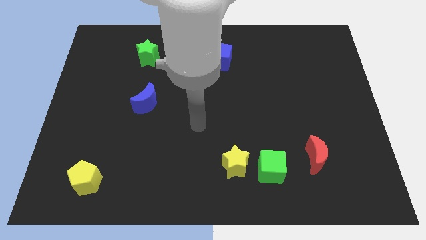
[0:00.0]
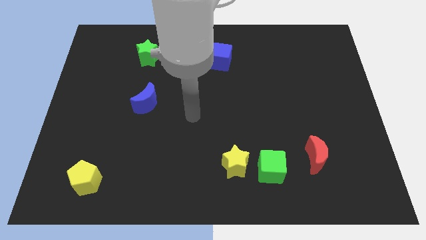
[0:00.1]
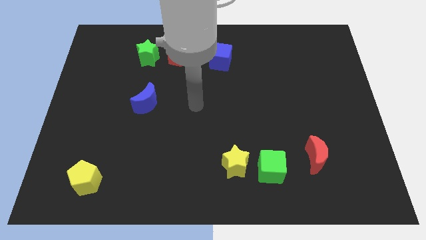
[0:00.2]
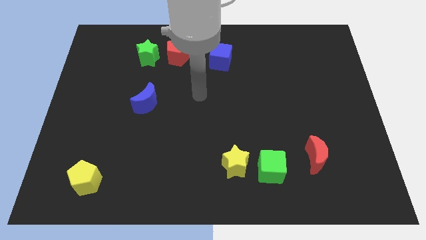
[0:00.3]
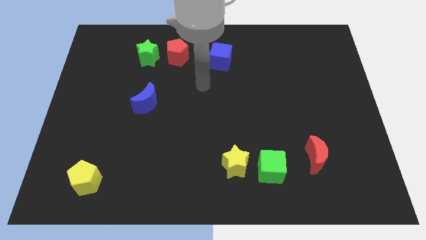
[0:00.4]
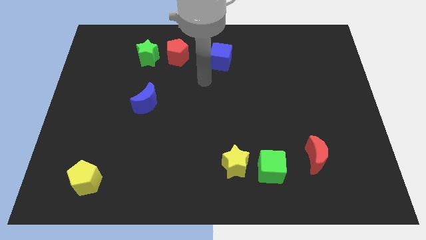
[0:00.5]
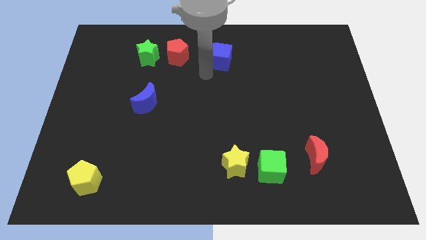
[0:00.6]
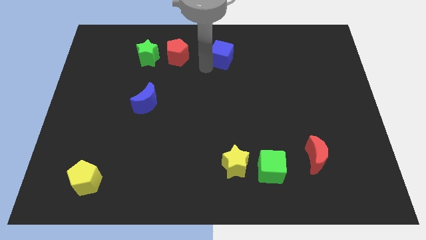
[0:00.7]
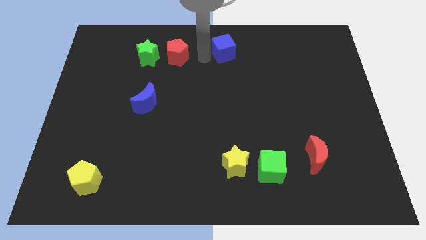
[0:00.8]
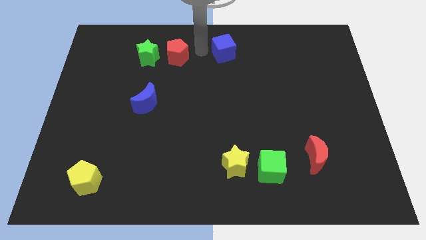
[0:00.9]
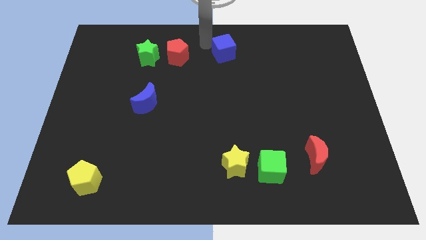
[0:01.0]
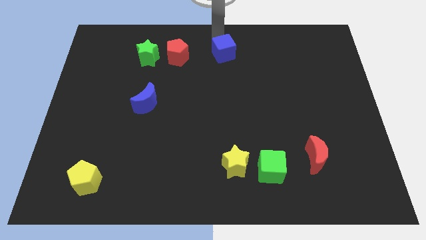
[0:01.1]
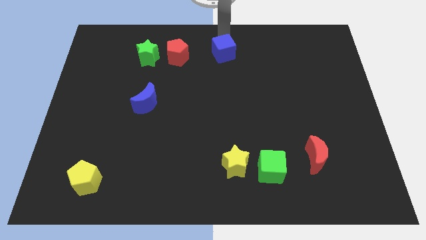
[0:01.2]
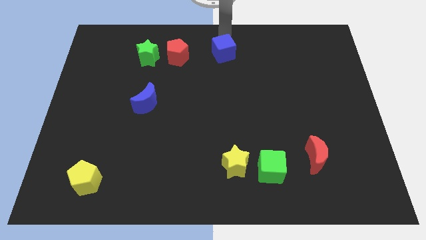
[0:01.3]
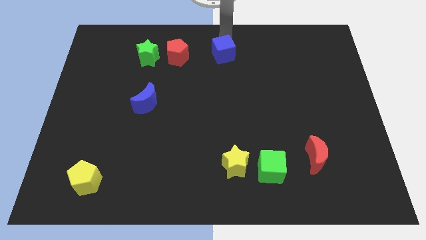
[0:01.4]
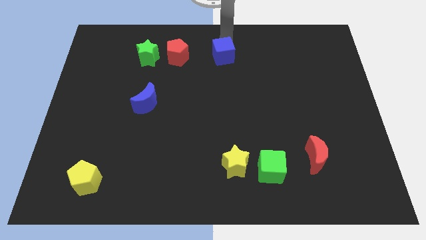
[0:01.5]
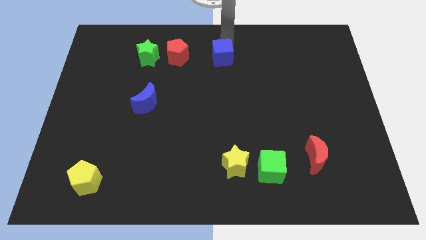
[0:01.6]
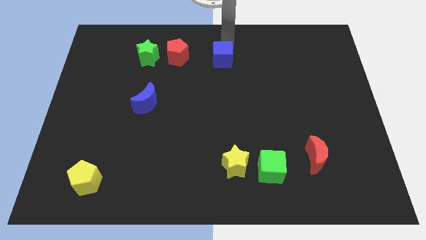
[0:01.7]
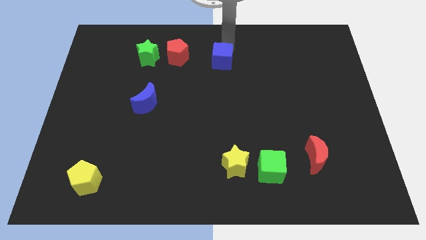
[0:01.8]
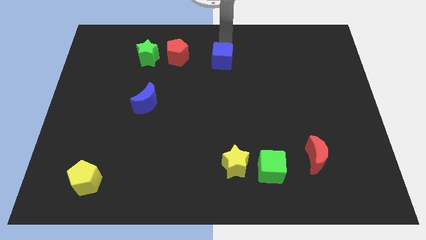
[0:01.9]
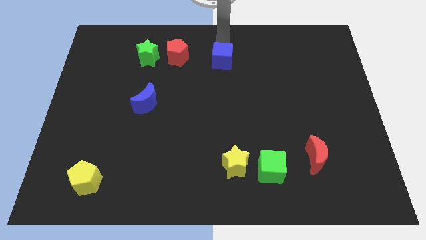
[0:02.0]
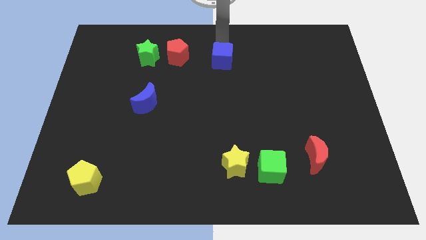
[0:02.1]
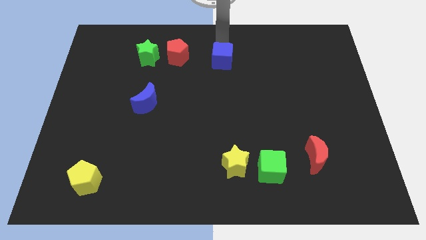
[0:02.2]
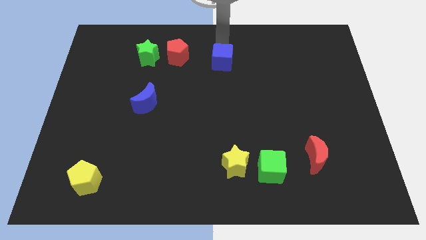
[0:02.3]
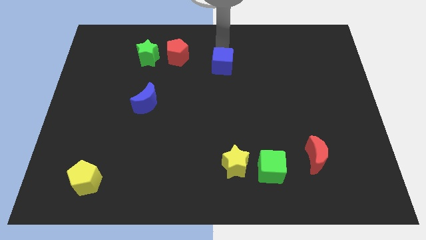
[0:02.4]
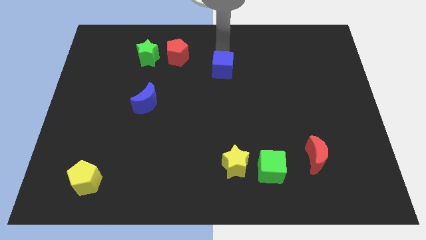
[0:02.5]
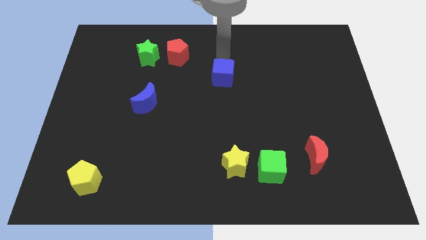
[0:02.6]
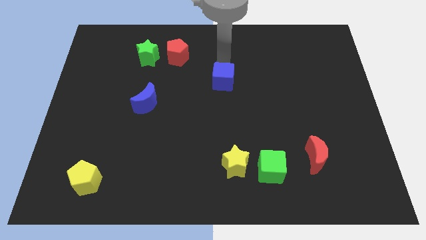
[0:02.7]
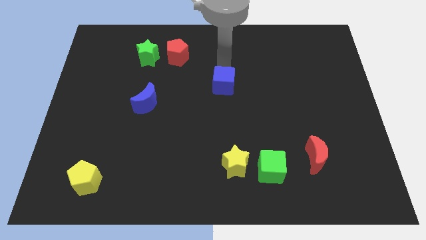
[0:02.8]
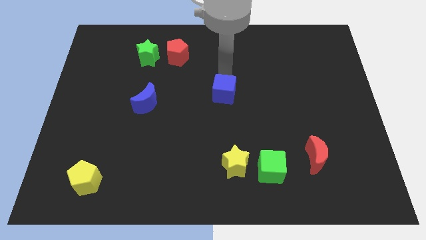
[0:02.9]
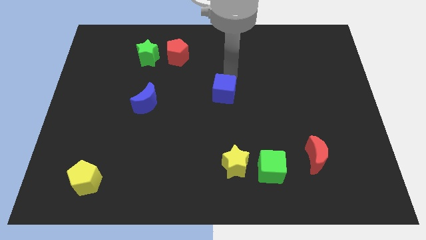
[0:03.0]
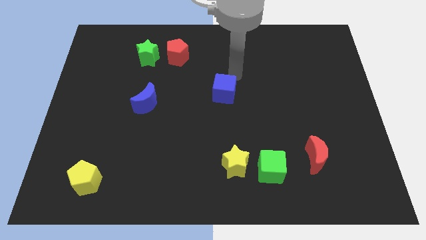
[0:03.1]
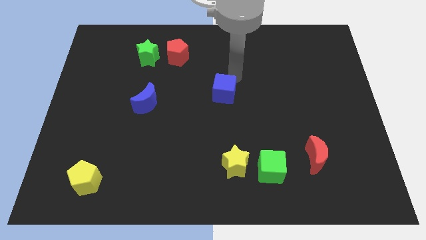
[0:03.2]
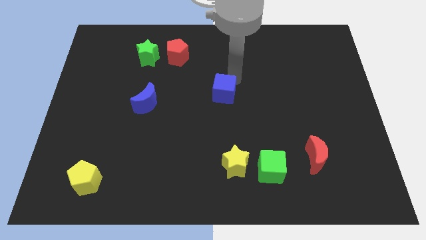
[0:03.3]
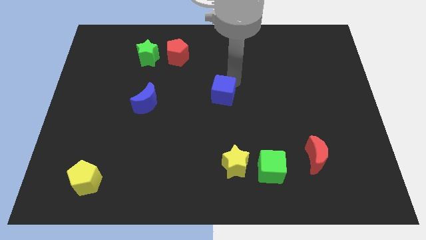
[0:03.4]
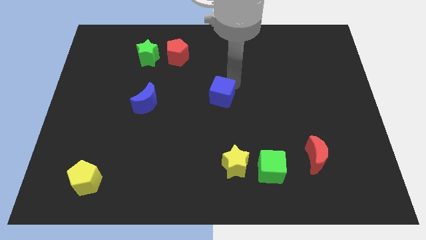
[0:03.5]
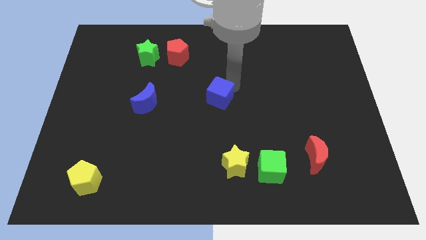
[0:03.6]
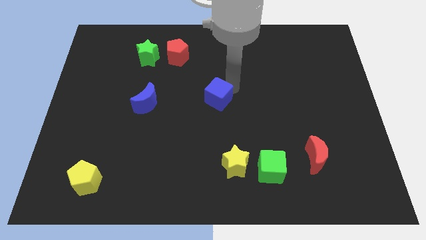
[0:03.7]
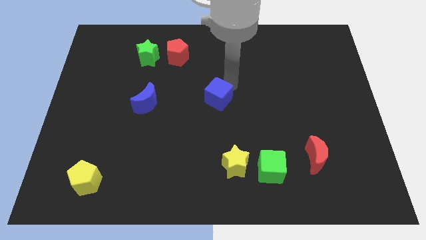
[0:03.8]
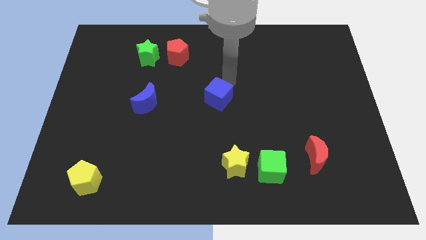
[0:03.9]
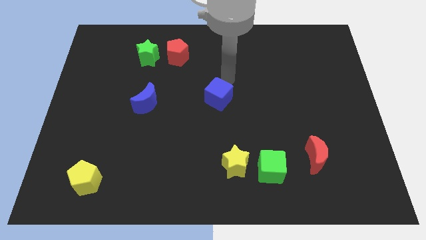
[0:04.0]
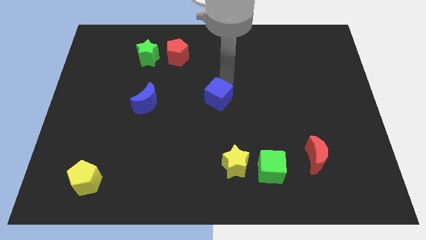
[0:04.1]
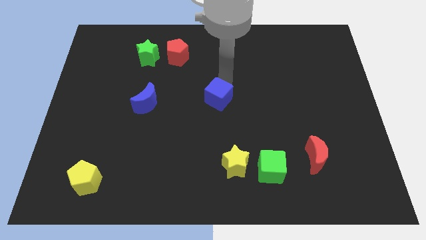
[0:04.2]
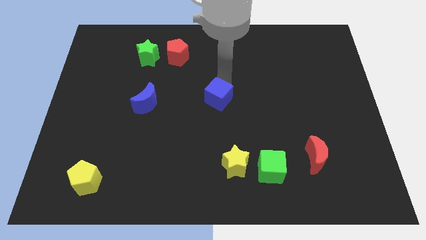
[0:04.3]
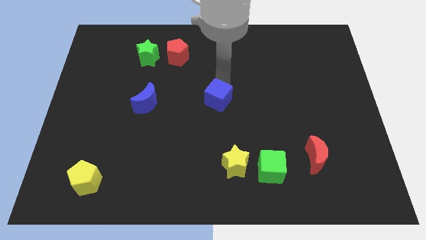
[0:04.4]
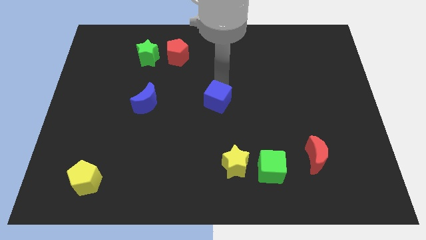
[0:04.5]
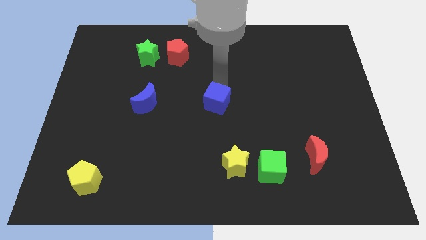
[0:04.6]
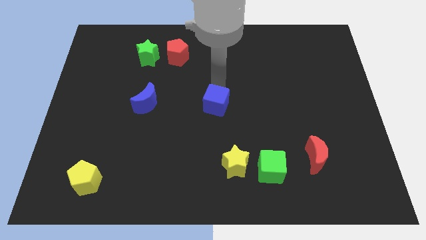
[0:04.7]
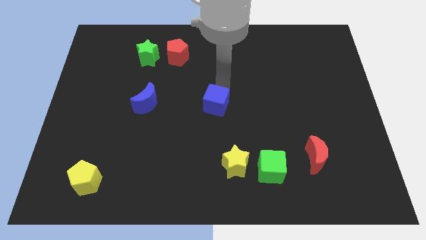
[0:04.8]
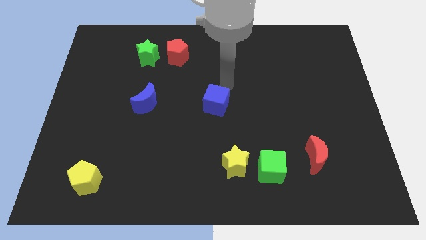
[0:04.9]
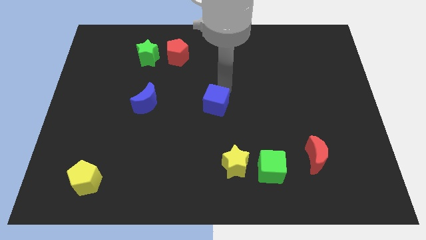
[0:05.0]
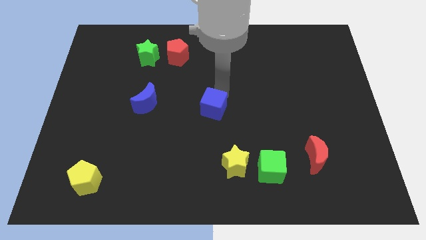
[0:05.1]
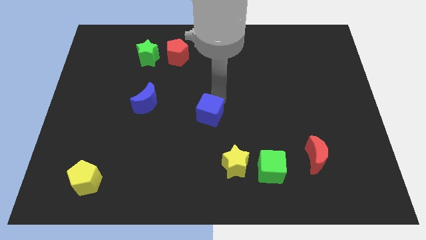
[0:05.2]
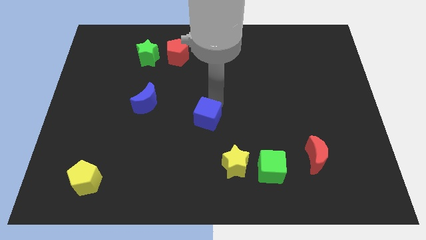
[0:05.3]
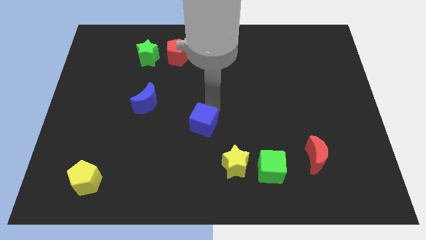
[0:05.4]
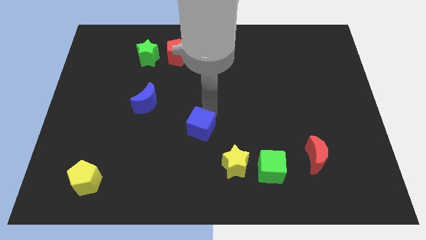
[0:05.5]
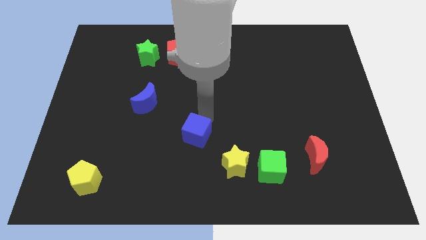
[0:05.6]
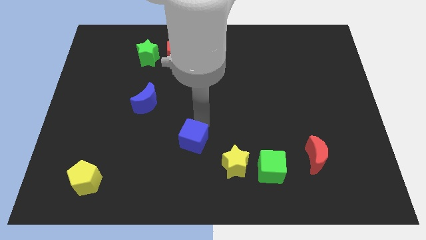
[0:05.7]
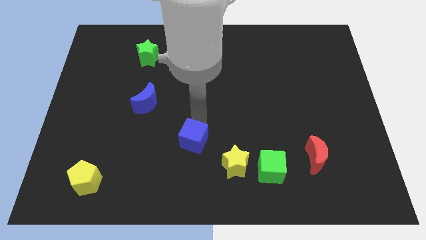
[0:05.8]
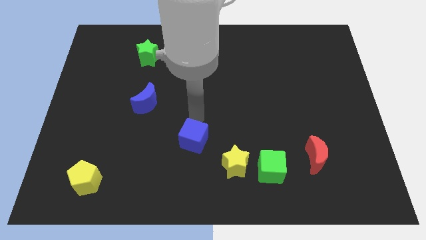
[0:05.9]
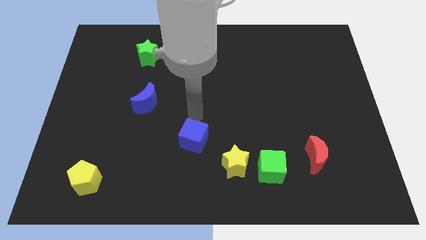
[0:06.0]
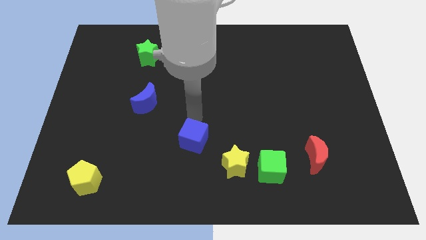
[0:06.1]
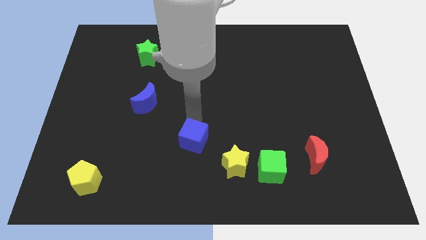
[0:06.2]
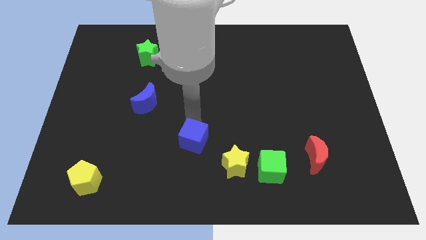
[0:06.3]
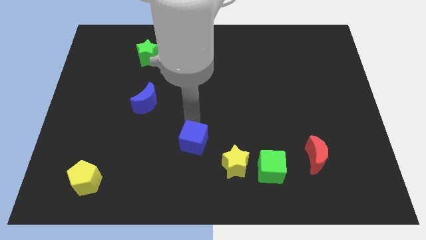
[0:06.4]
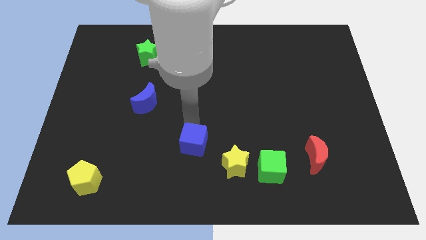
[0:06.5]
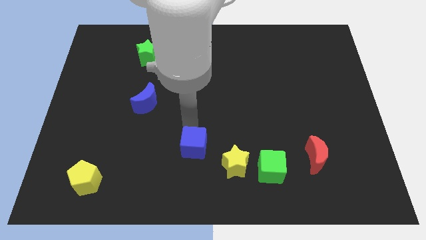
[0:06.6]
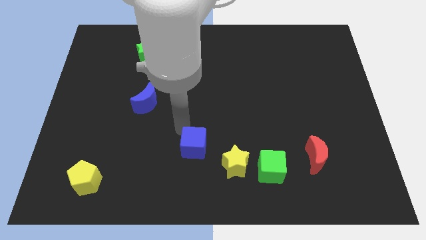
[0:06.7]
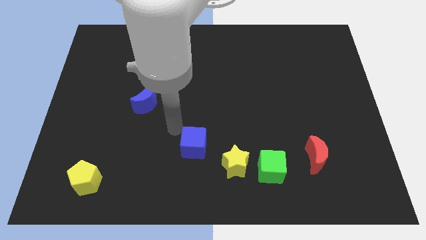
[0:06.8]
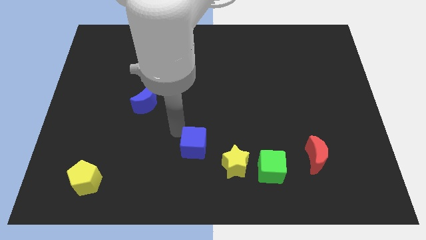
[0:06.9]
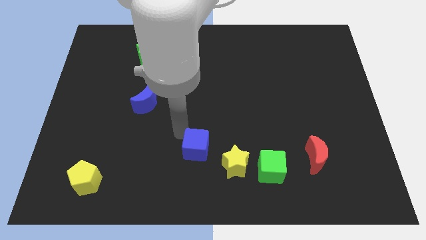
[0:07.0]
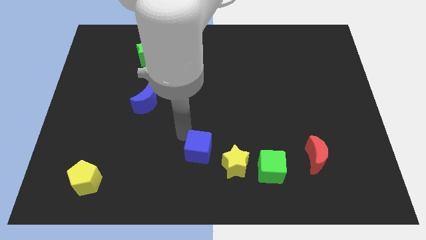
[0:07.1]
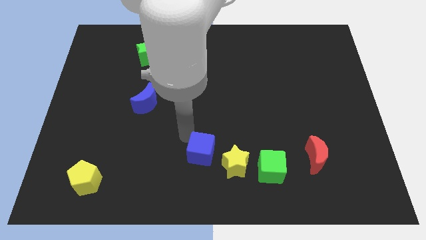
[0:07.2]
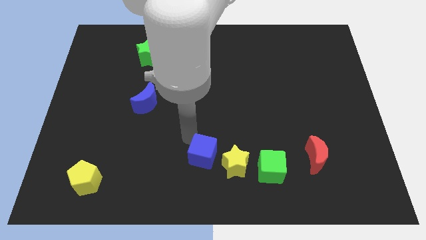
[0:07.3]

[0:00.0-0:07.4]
move the blue cube just left of the green cube
